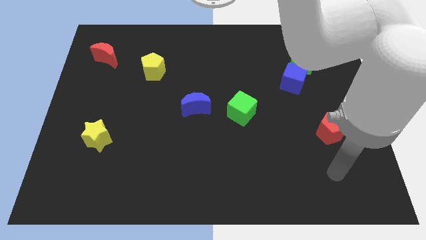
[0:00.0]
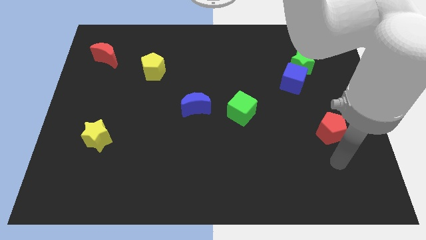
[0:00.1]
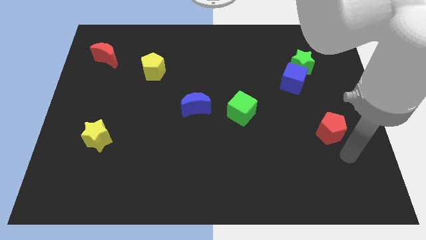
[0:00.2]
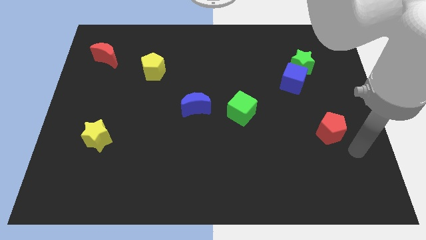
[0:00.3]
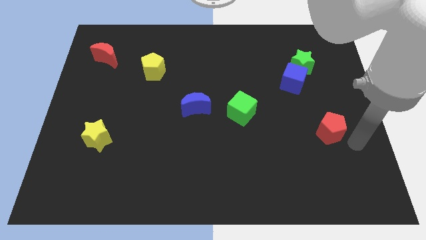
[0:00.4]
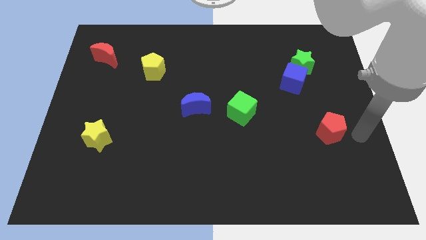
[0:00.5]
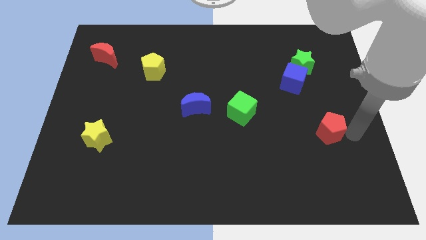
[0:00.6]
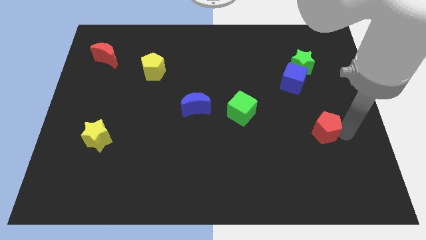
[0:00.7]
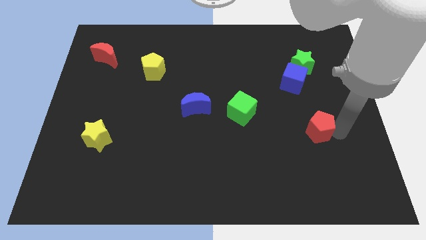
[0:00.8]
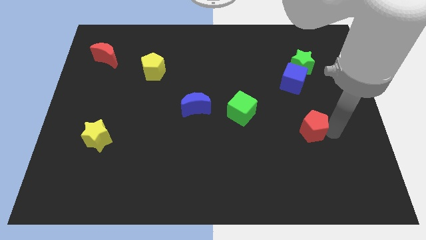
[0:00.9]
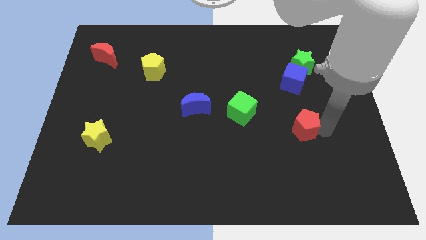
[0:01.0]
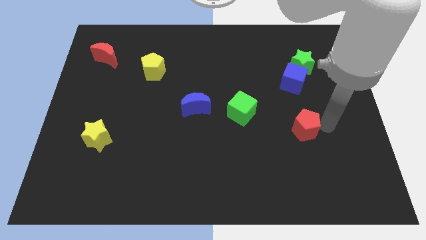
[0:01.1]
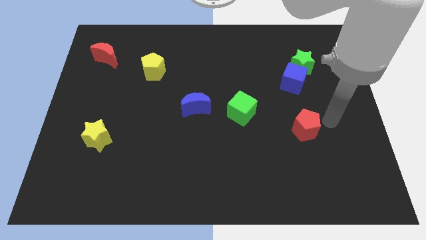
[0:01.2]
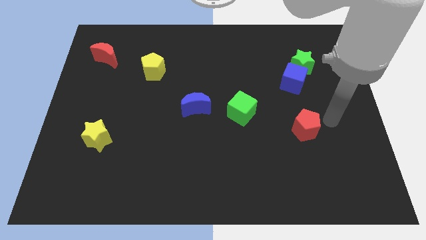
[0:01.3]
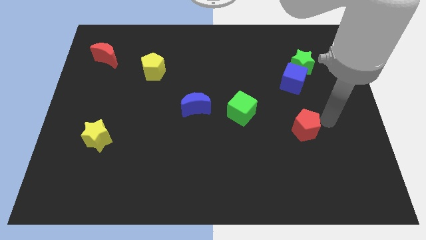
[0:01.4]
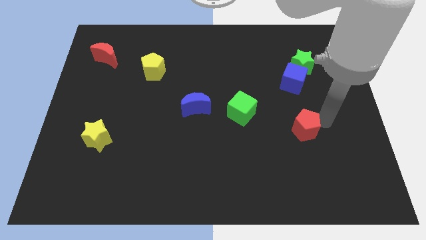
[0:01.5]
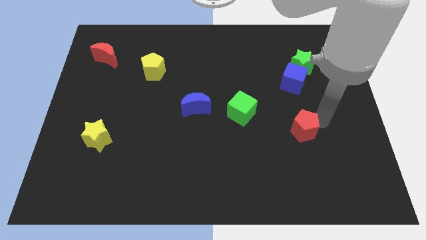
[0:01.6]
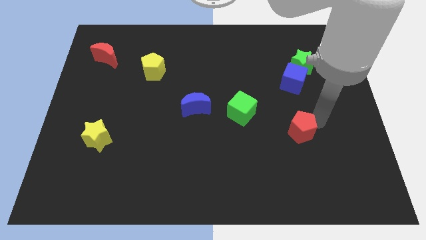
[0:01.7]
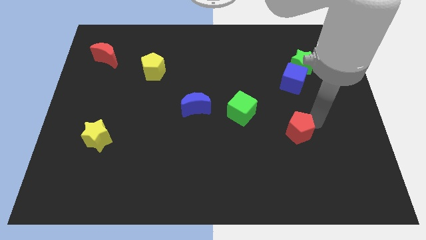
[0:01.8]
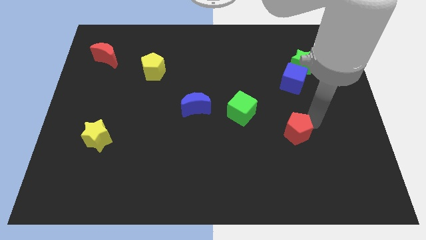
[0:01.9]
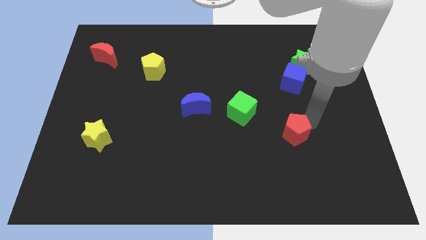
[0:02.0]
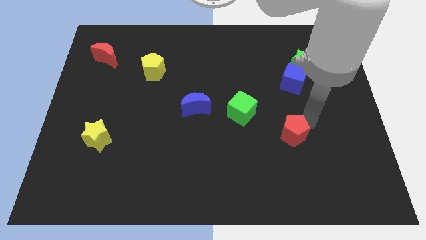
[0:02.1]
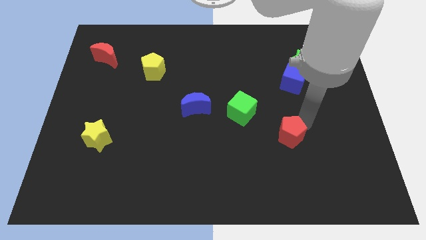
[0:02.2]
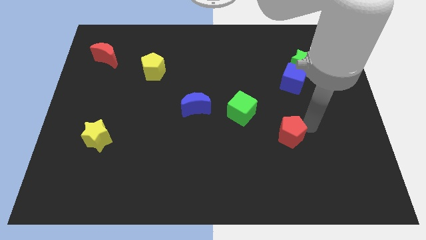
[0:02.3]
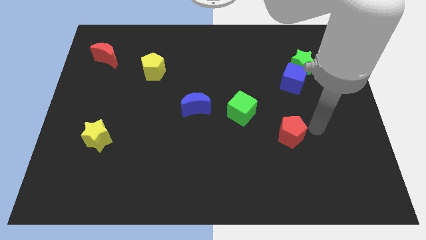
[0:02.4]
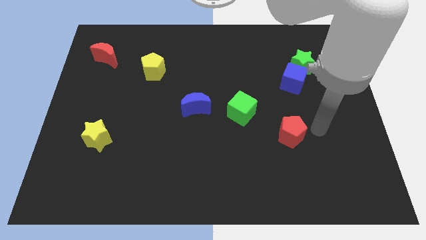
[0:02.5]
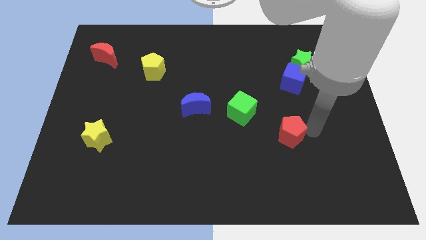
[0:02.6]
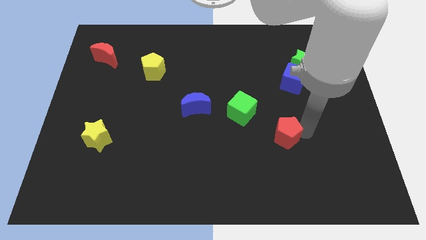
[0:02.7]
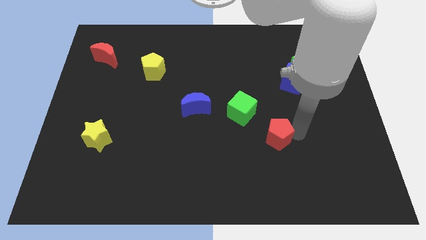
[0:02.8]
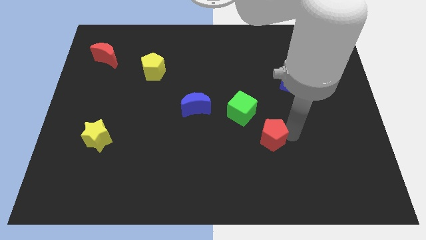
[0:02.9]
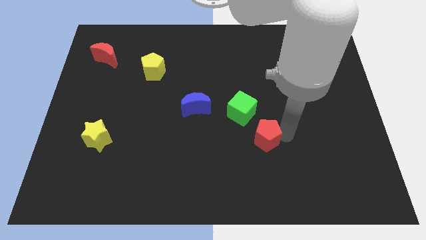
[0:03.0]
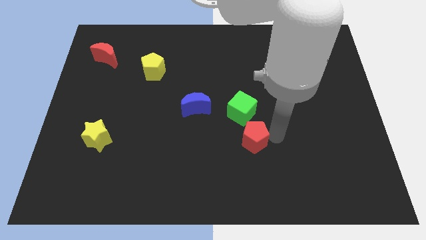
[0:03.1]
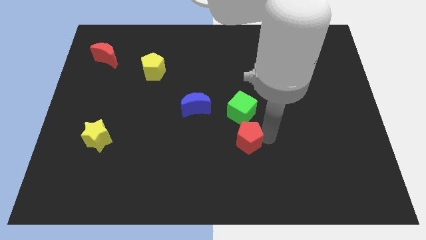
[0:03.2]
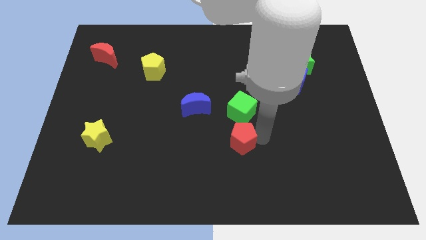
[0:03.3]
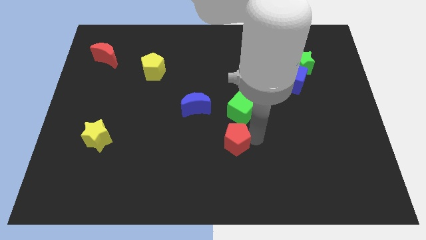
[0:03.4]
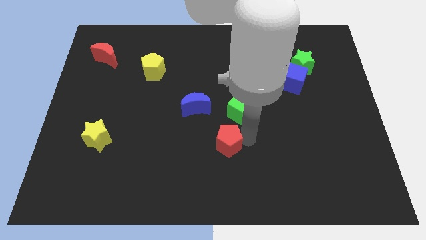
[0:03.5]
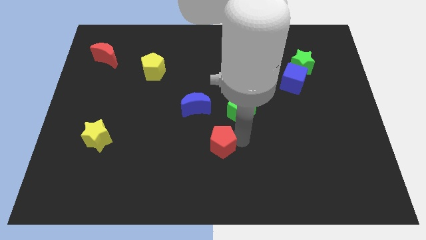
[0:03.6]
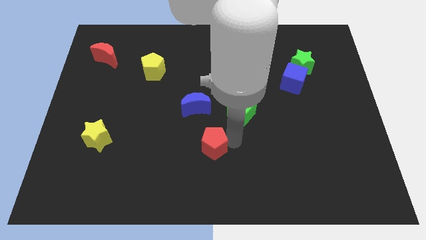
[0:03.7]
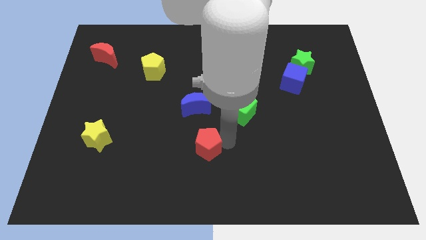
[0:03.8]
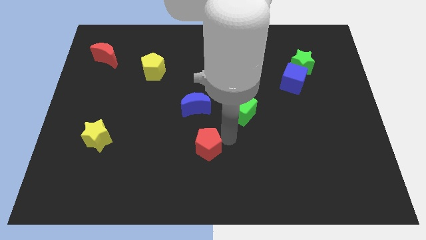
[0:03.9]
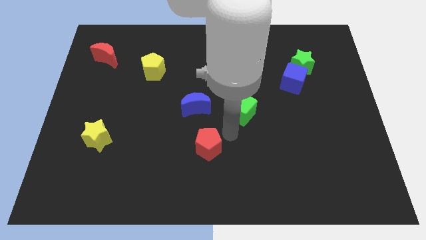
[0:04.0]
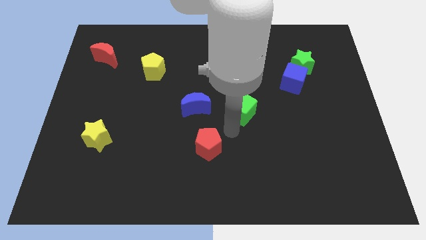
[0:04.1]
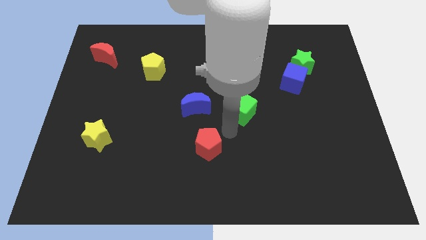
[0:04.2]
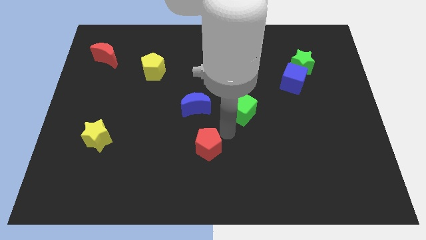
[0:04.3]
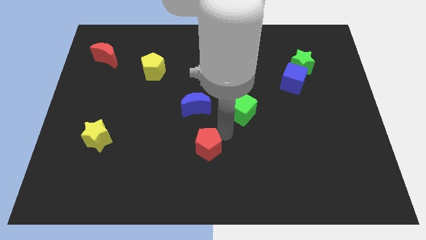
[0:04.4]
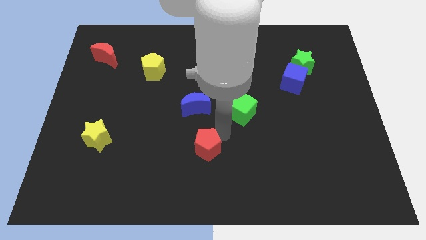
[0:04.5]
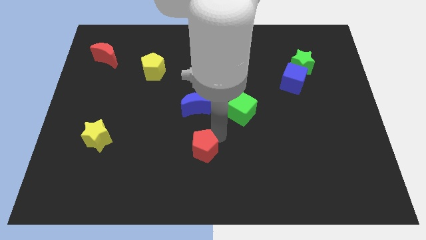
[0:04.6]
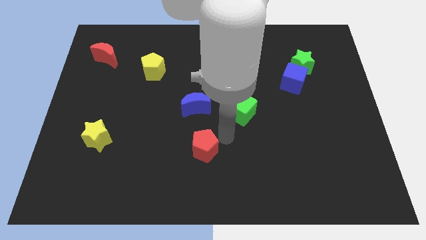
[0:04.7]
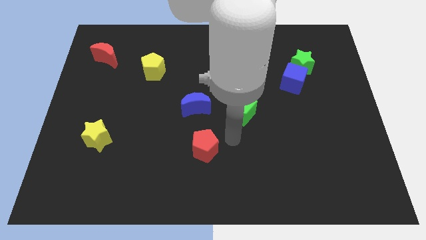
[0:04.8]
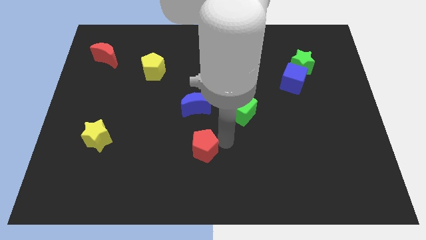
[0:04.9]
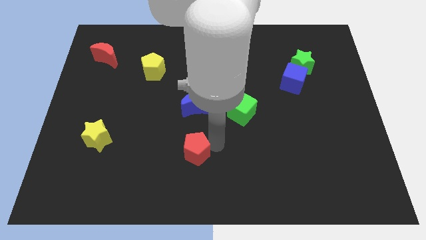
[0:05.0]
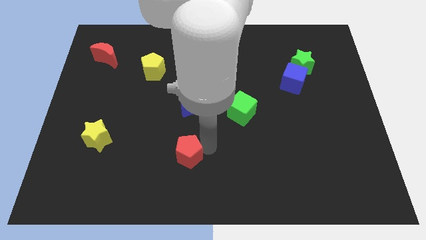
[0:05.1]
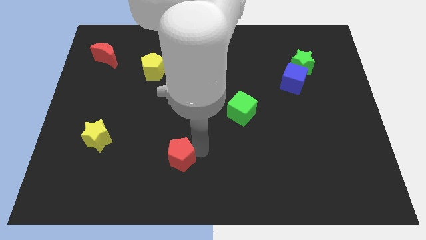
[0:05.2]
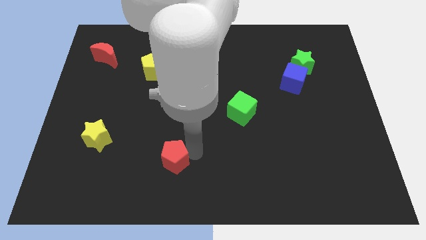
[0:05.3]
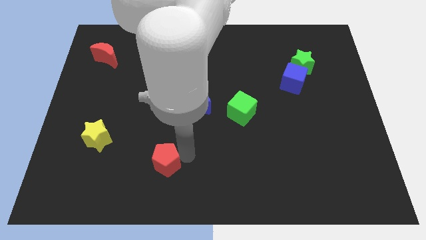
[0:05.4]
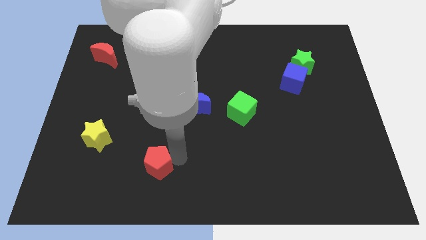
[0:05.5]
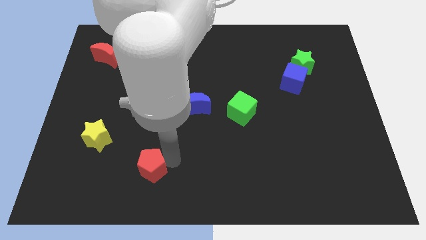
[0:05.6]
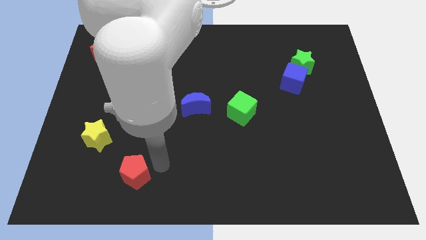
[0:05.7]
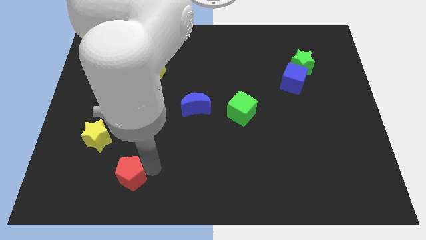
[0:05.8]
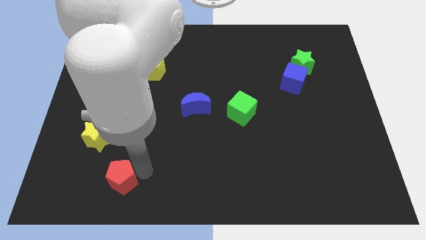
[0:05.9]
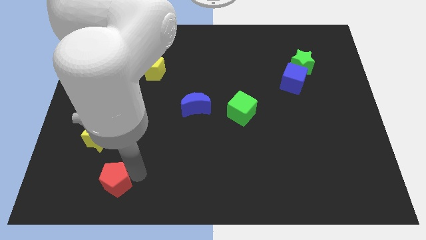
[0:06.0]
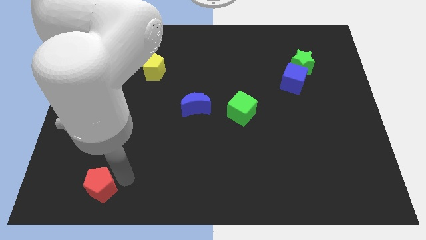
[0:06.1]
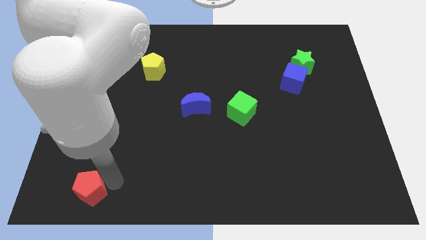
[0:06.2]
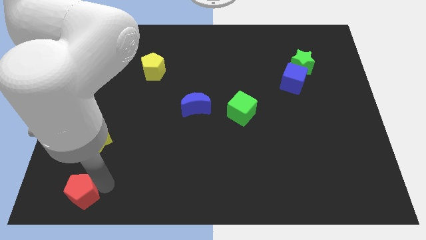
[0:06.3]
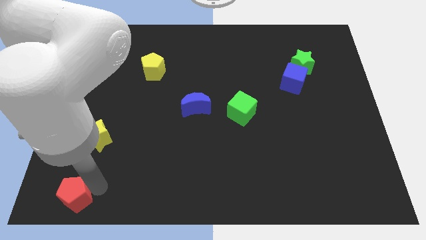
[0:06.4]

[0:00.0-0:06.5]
slide the red pentagon to the bottom left of the board
